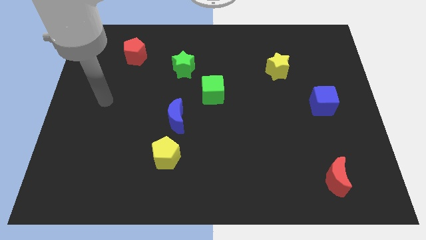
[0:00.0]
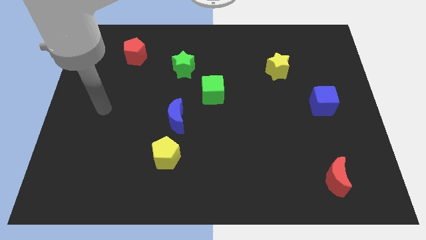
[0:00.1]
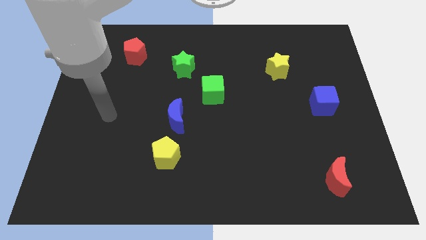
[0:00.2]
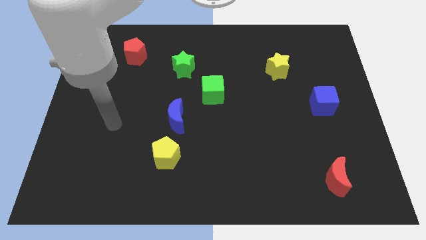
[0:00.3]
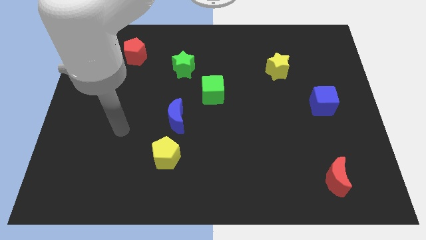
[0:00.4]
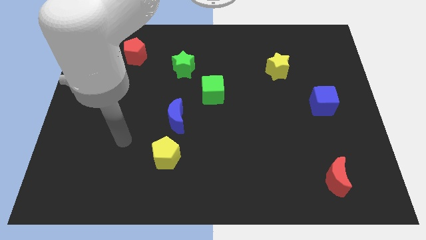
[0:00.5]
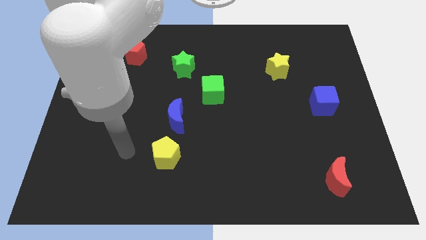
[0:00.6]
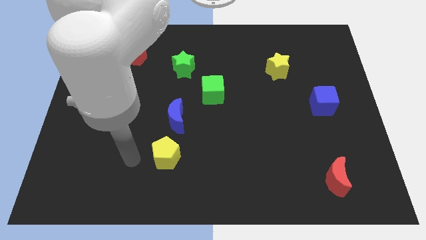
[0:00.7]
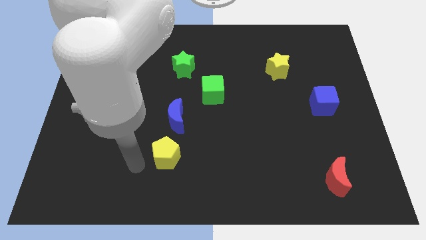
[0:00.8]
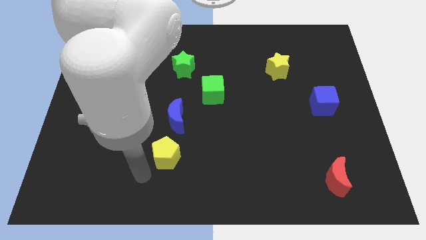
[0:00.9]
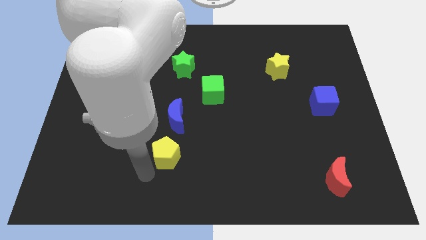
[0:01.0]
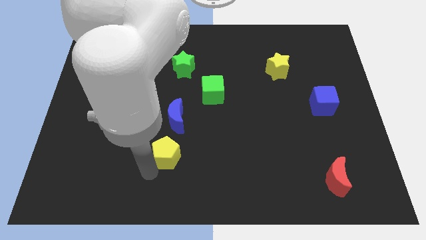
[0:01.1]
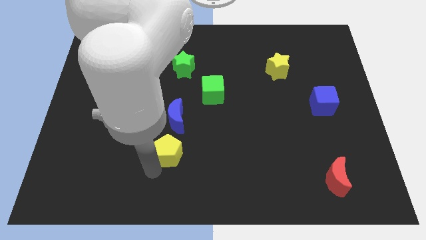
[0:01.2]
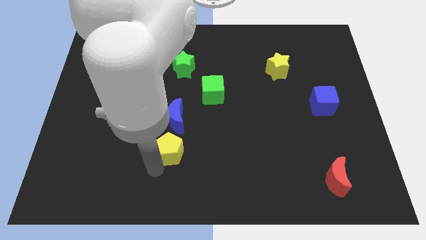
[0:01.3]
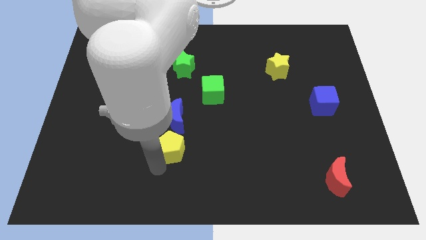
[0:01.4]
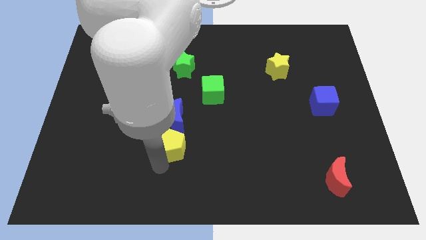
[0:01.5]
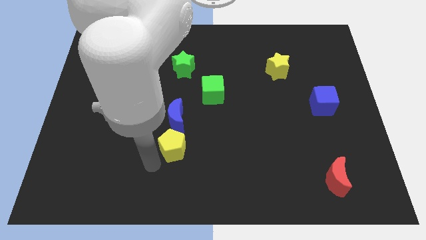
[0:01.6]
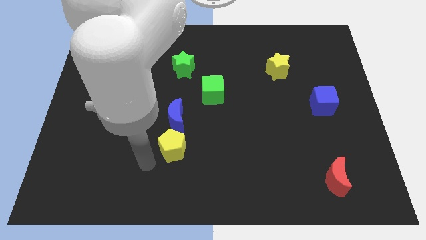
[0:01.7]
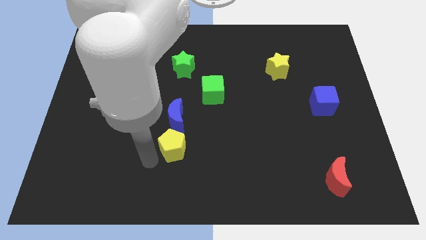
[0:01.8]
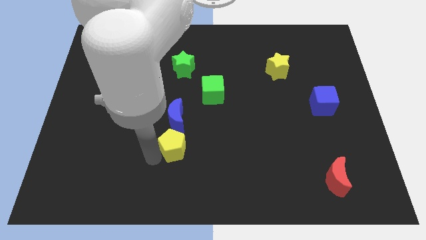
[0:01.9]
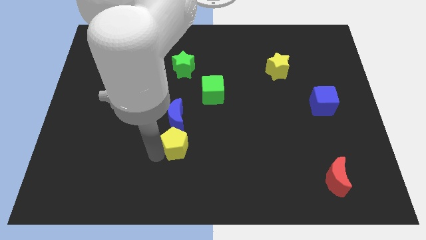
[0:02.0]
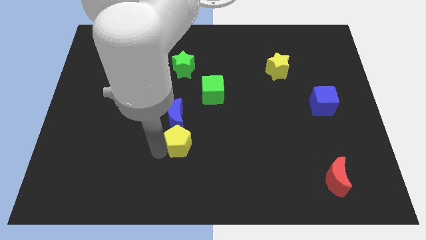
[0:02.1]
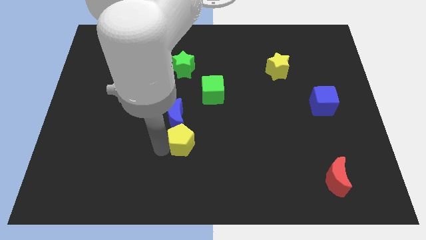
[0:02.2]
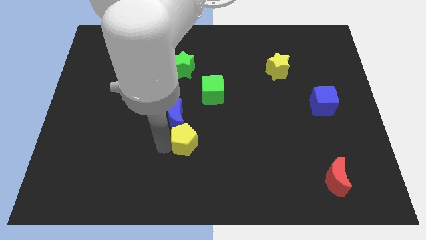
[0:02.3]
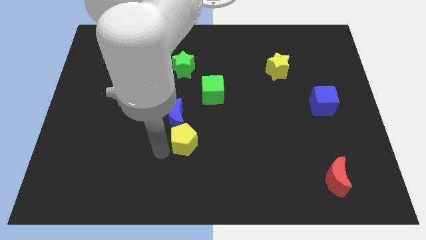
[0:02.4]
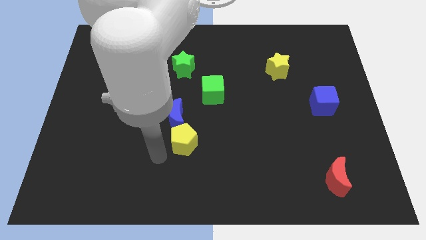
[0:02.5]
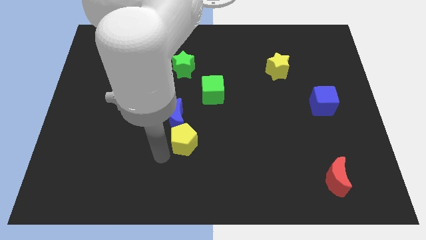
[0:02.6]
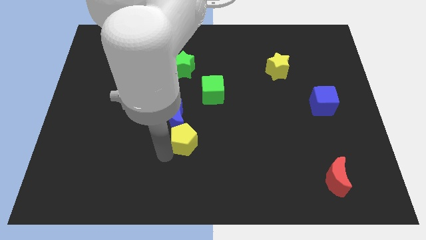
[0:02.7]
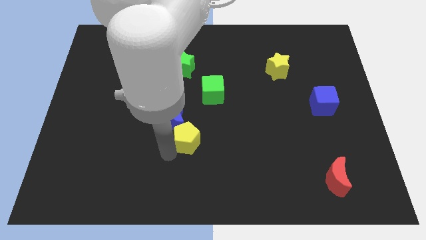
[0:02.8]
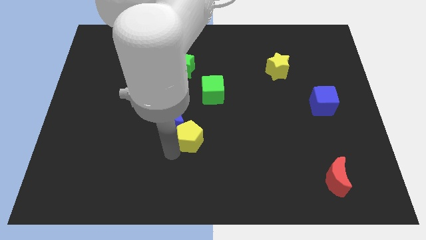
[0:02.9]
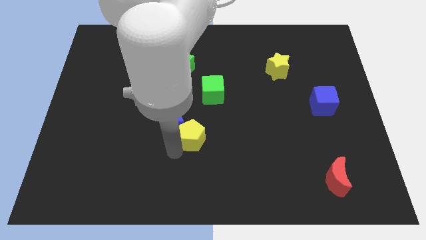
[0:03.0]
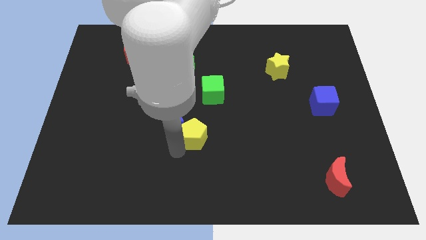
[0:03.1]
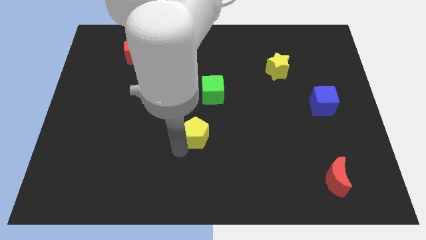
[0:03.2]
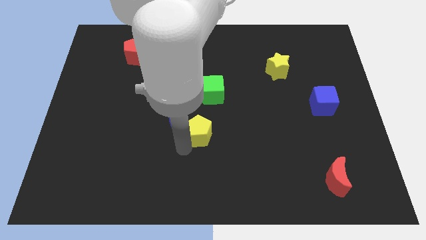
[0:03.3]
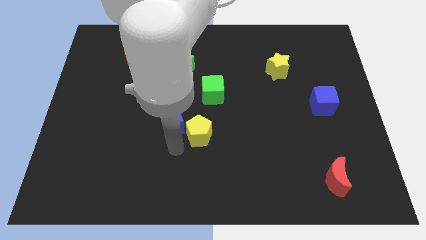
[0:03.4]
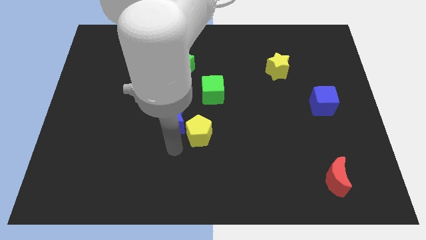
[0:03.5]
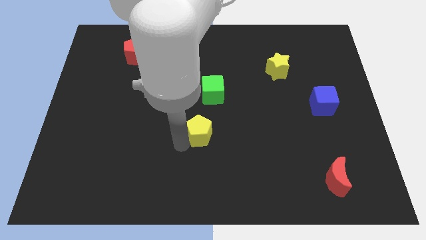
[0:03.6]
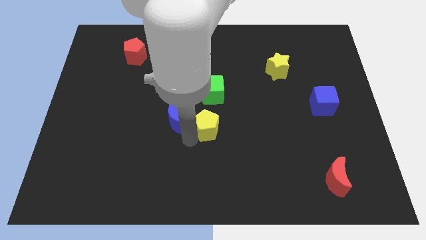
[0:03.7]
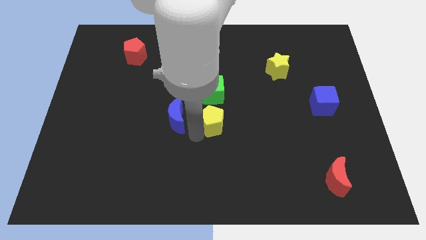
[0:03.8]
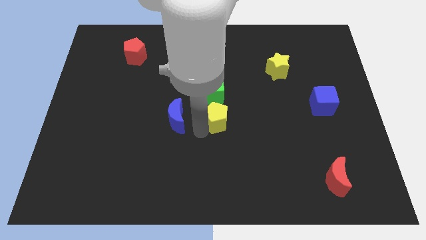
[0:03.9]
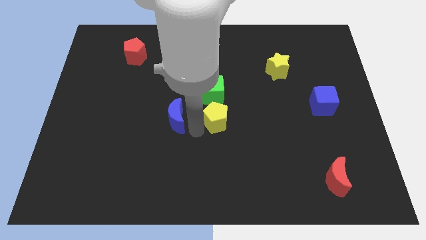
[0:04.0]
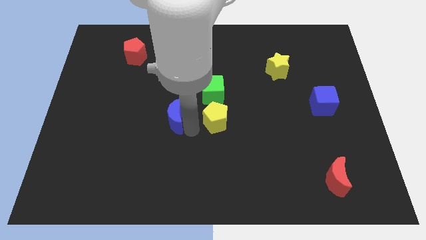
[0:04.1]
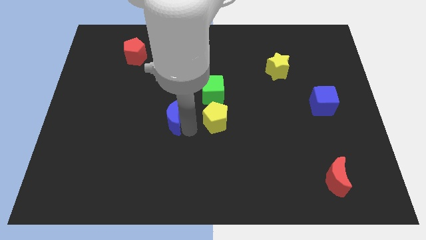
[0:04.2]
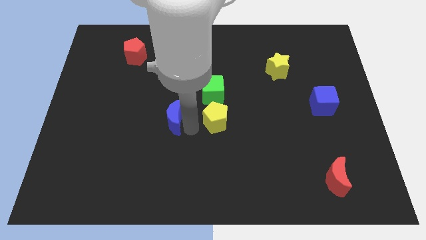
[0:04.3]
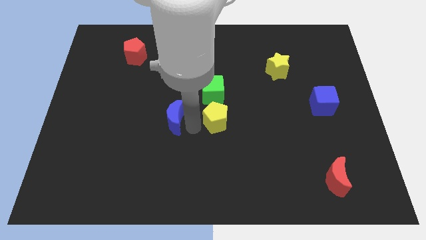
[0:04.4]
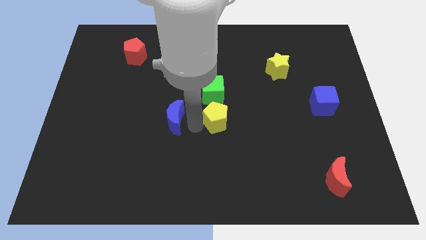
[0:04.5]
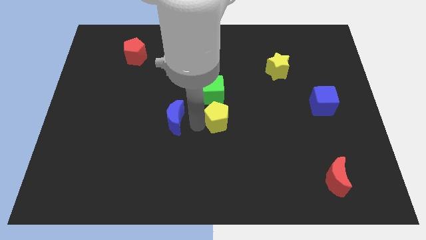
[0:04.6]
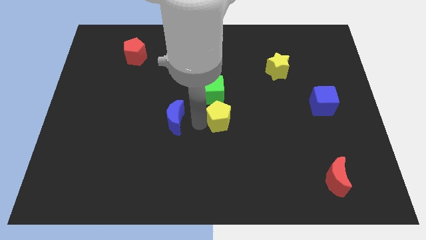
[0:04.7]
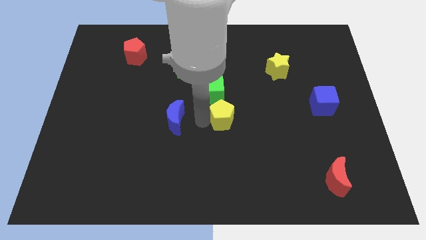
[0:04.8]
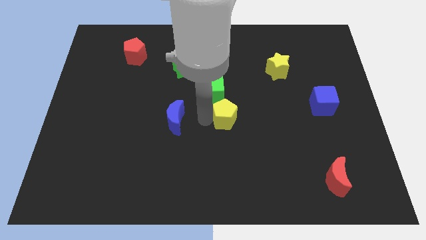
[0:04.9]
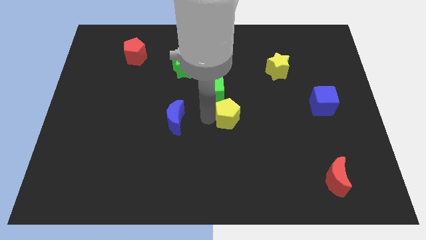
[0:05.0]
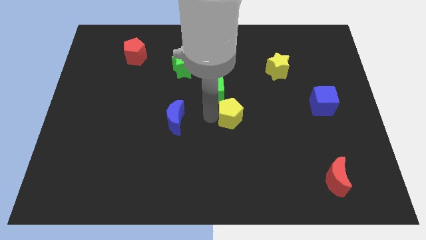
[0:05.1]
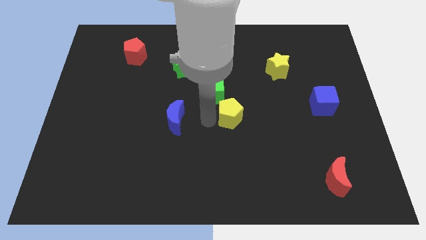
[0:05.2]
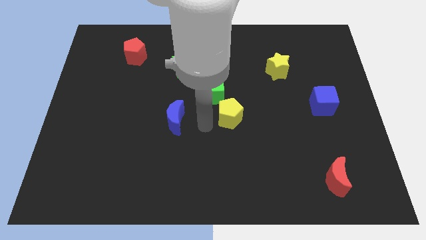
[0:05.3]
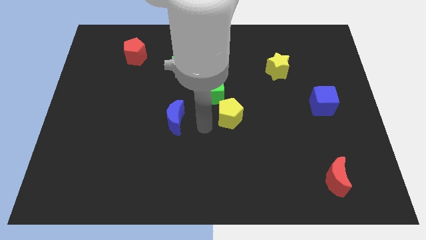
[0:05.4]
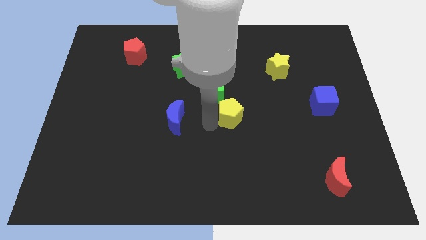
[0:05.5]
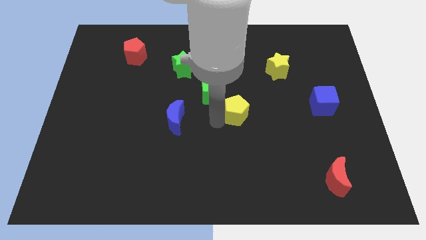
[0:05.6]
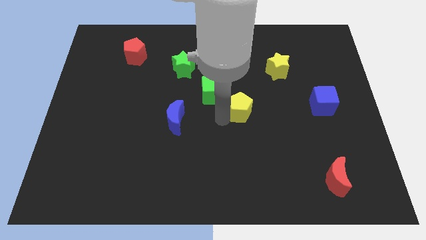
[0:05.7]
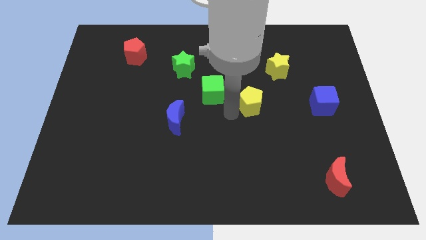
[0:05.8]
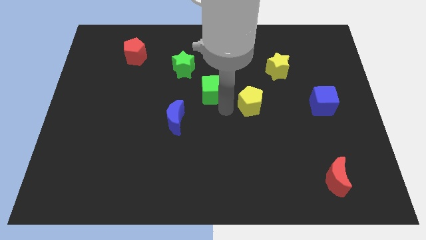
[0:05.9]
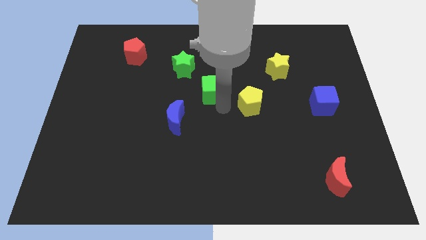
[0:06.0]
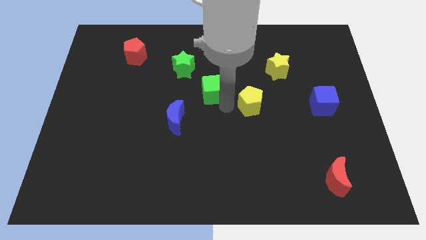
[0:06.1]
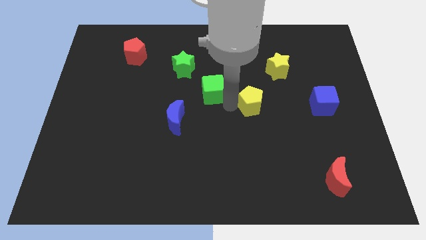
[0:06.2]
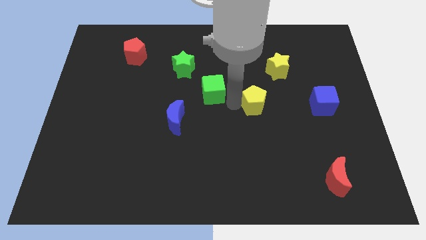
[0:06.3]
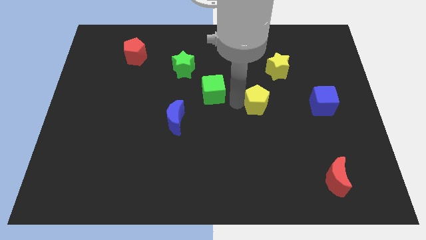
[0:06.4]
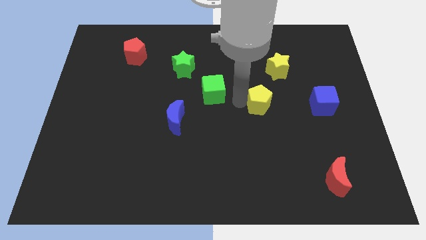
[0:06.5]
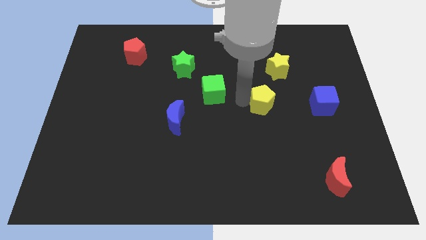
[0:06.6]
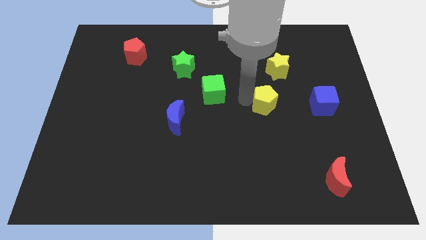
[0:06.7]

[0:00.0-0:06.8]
move the yellow pentagon to the bottom side of the yellow star

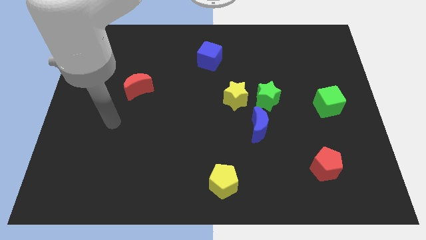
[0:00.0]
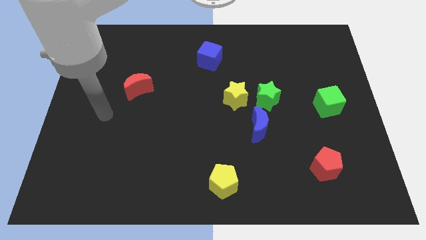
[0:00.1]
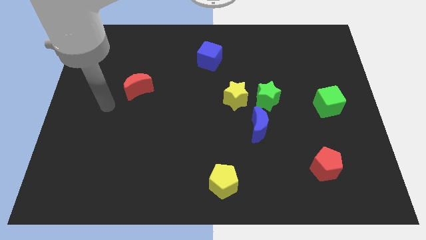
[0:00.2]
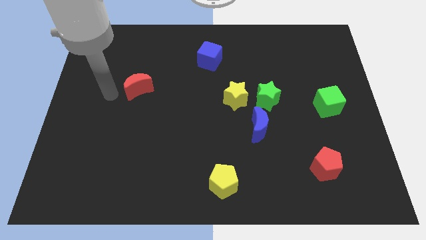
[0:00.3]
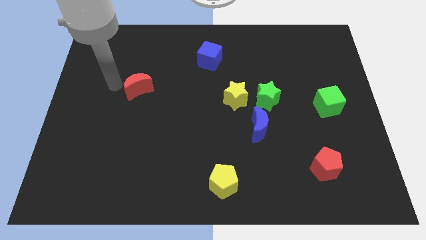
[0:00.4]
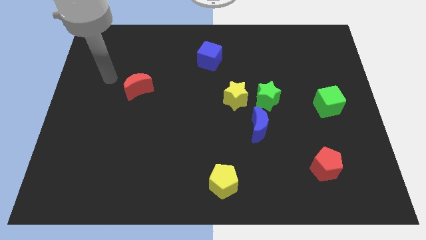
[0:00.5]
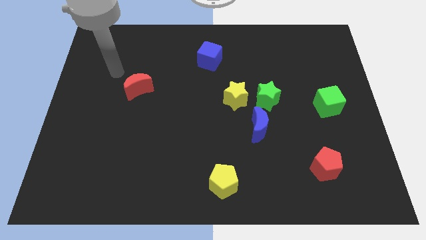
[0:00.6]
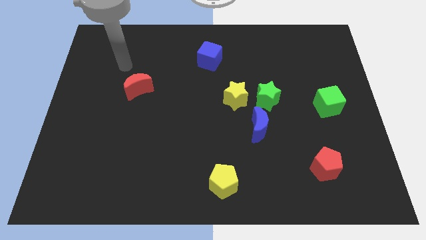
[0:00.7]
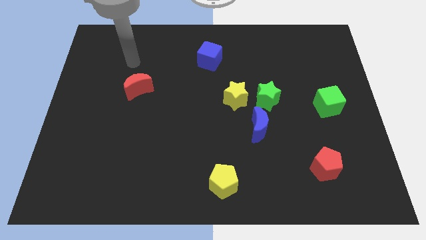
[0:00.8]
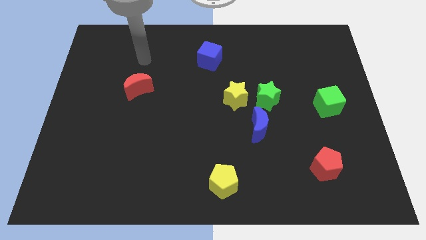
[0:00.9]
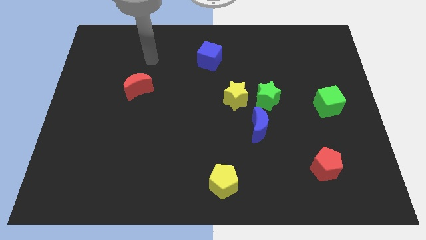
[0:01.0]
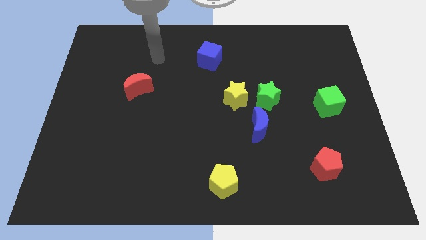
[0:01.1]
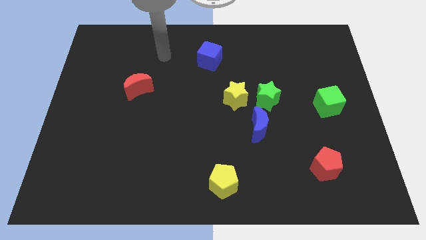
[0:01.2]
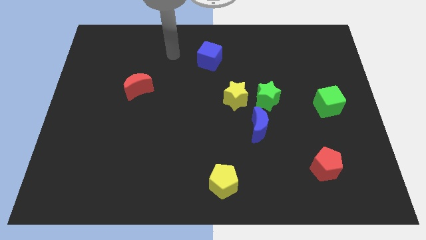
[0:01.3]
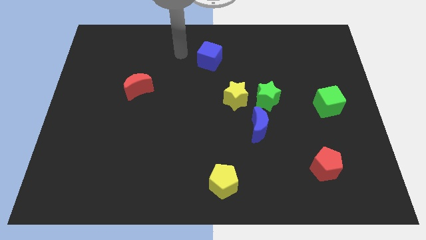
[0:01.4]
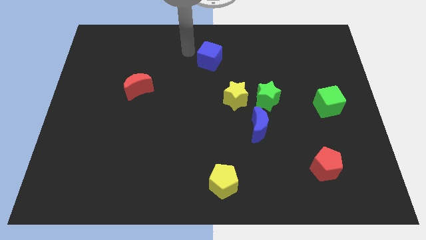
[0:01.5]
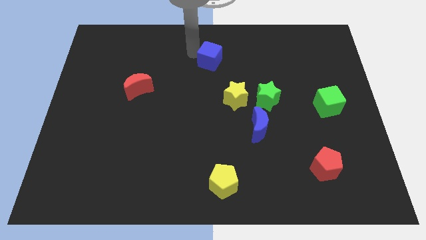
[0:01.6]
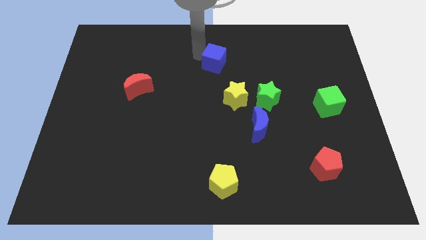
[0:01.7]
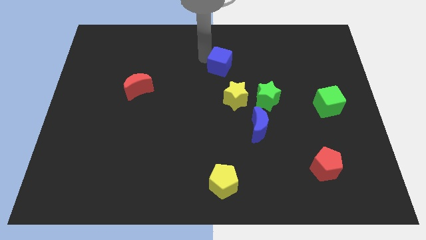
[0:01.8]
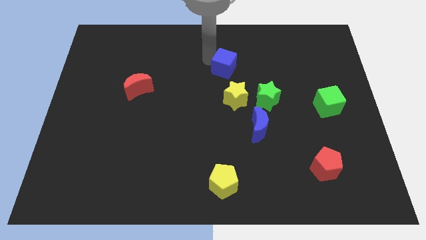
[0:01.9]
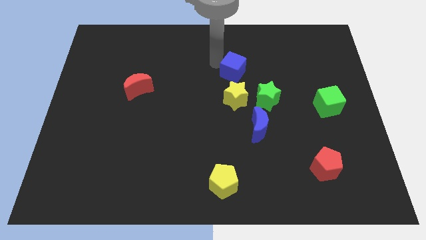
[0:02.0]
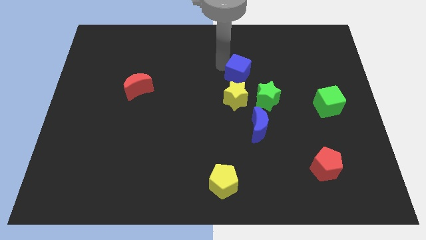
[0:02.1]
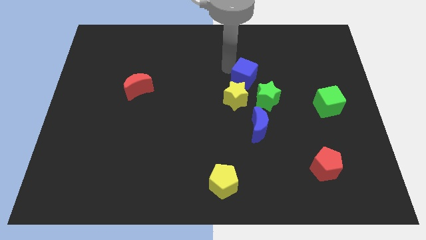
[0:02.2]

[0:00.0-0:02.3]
slide the blue cube to the top right of the yellow star
